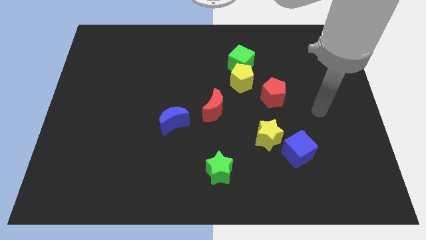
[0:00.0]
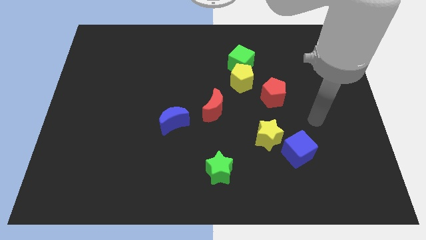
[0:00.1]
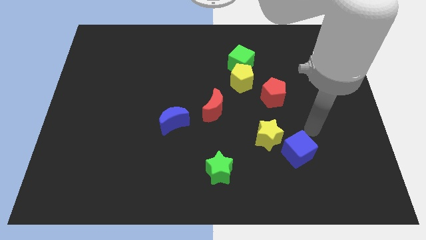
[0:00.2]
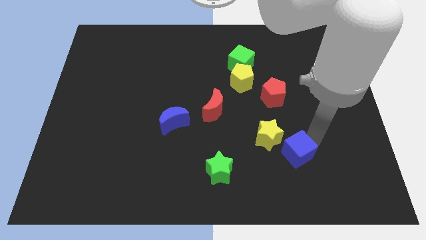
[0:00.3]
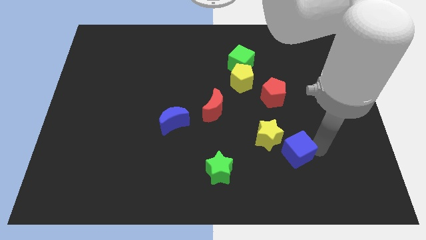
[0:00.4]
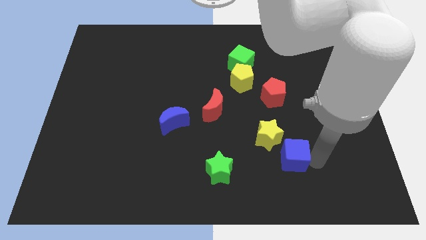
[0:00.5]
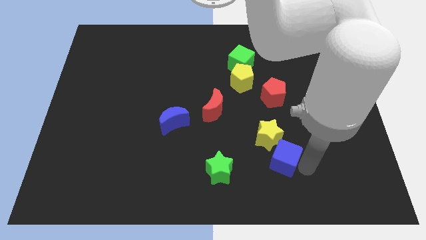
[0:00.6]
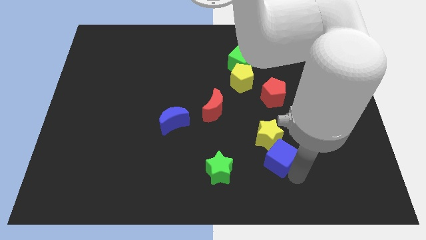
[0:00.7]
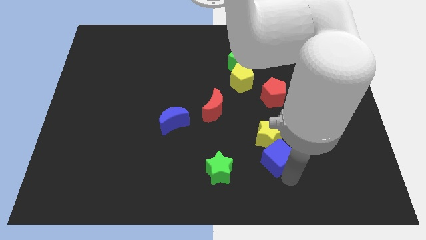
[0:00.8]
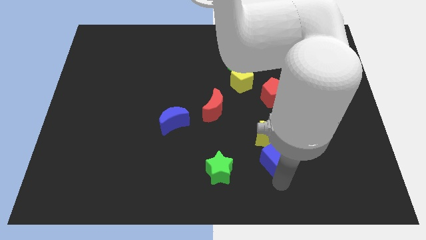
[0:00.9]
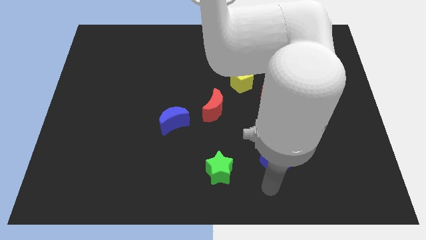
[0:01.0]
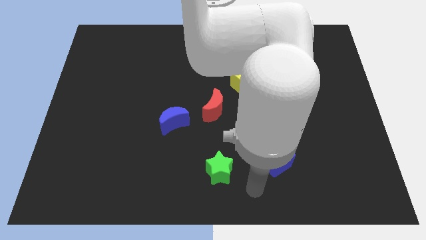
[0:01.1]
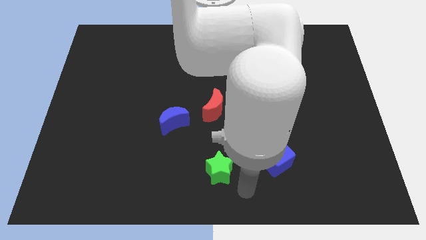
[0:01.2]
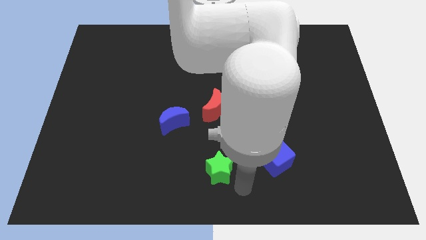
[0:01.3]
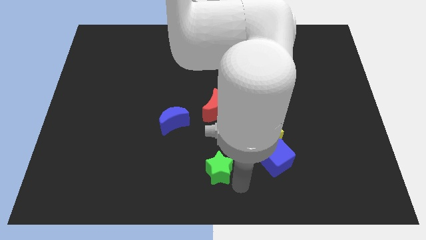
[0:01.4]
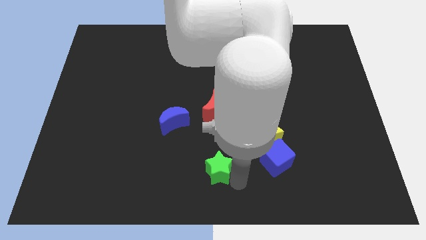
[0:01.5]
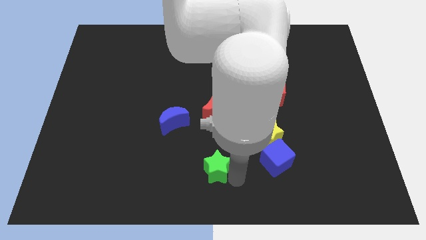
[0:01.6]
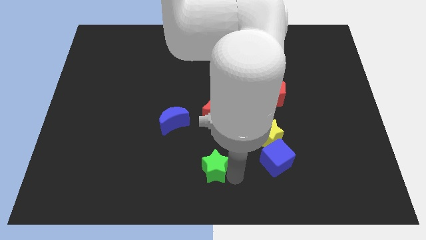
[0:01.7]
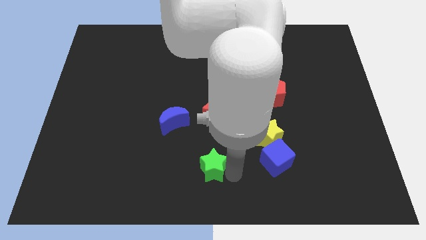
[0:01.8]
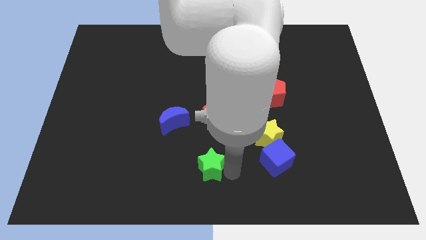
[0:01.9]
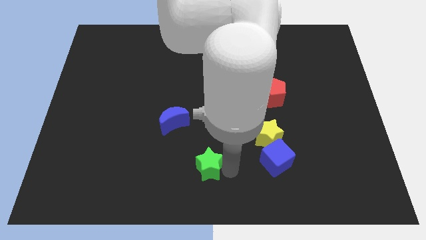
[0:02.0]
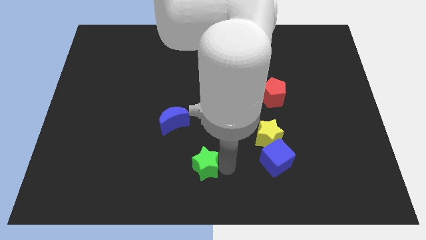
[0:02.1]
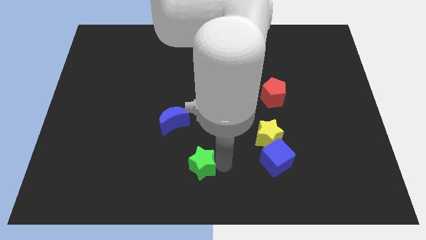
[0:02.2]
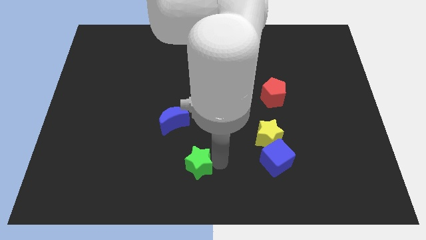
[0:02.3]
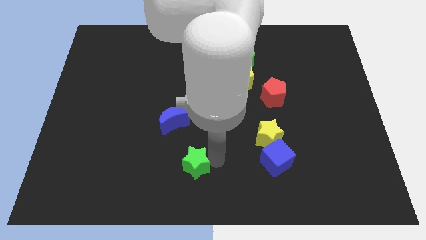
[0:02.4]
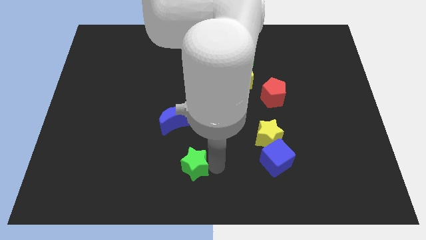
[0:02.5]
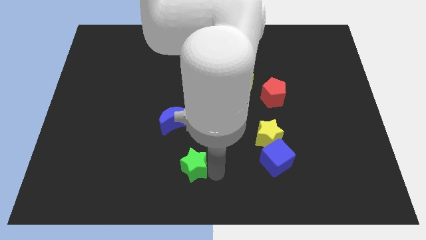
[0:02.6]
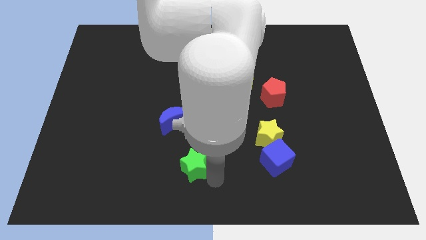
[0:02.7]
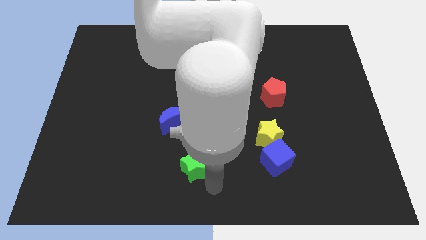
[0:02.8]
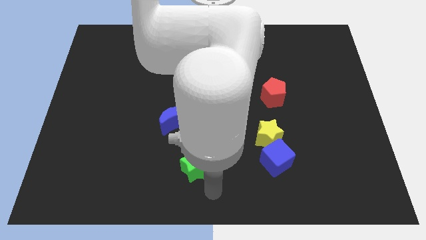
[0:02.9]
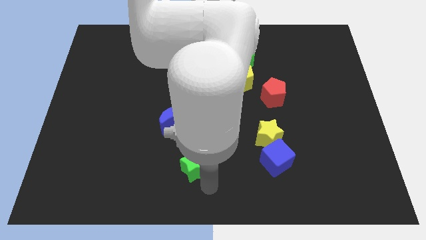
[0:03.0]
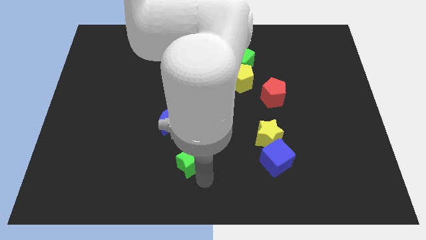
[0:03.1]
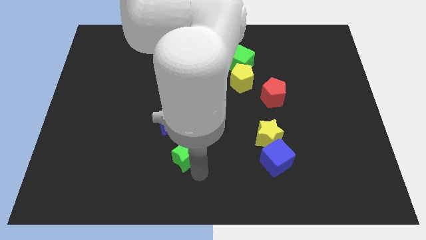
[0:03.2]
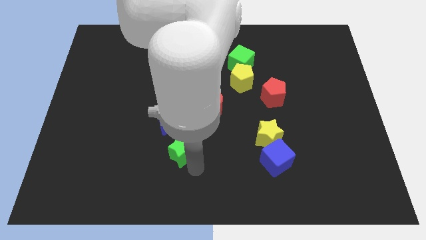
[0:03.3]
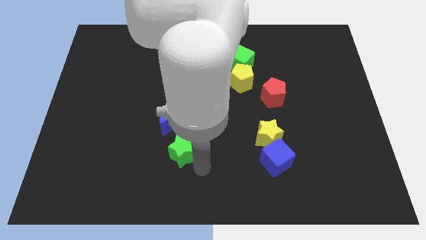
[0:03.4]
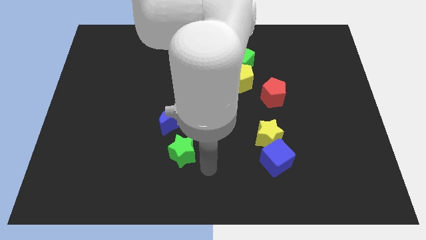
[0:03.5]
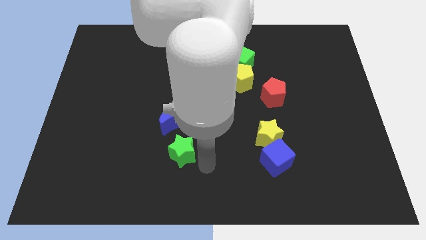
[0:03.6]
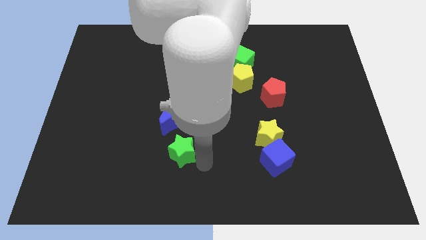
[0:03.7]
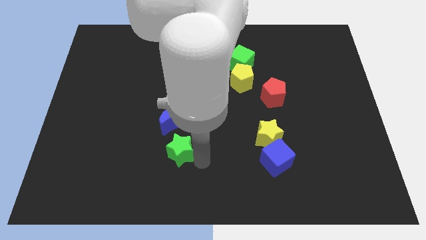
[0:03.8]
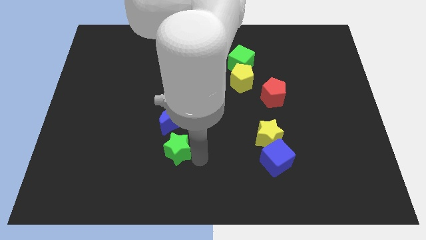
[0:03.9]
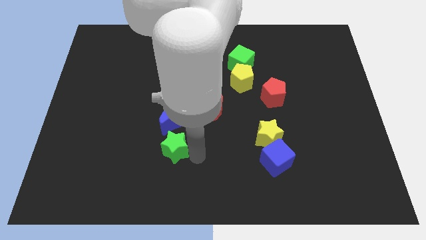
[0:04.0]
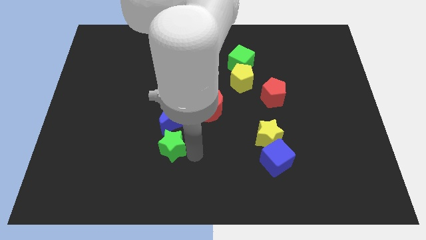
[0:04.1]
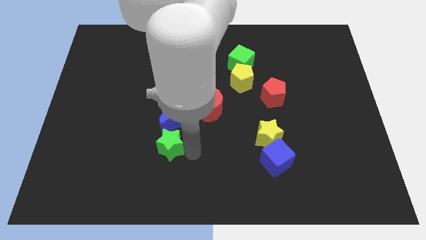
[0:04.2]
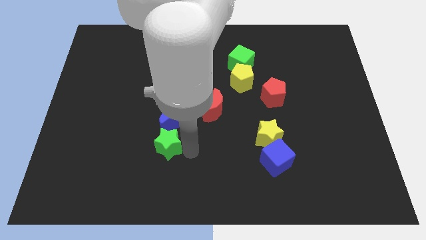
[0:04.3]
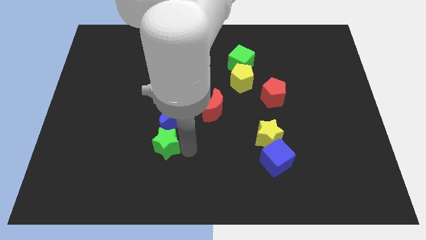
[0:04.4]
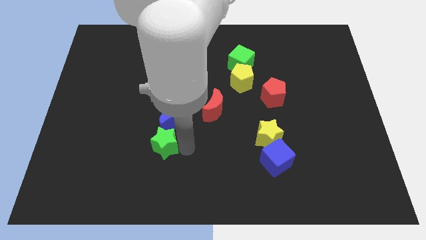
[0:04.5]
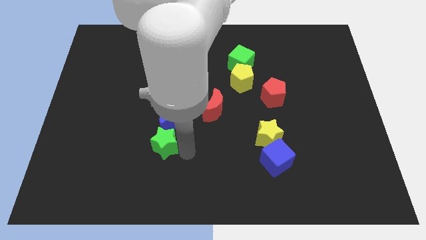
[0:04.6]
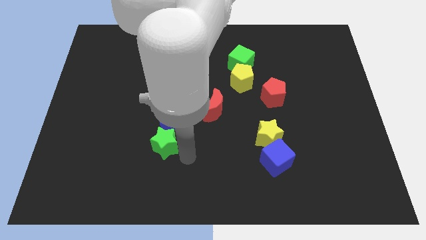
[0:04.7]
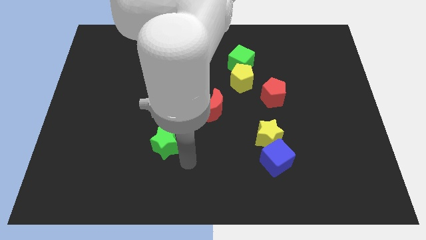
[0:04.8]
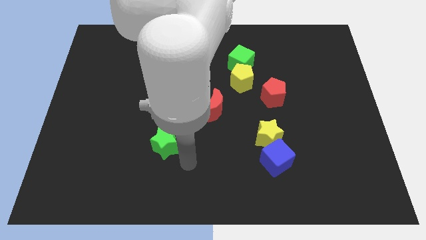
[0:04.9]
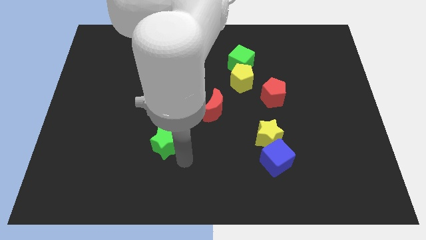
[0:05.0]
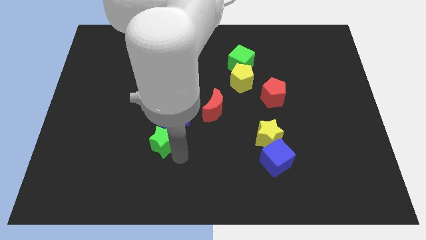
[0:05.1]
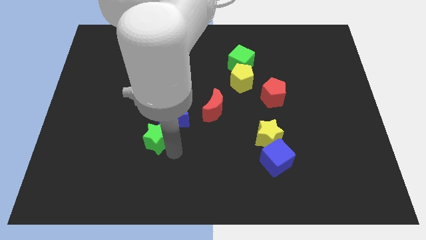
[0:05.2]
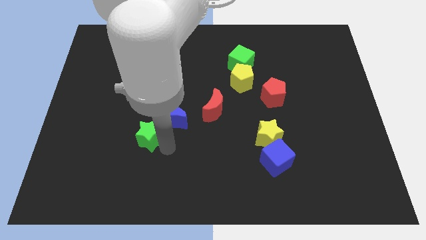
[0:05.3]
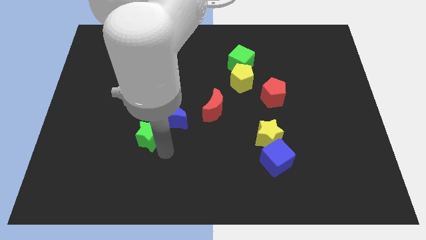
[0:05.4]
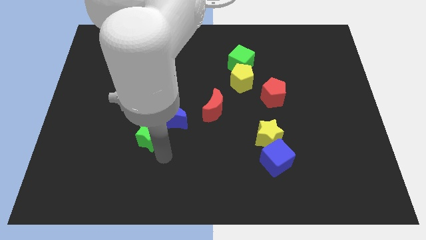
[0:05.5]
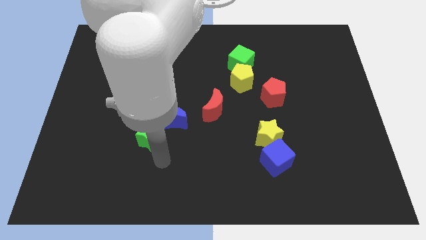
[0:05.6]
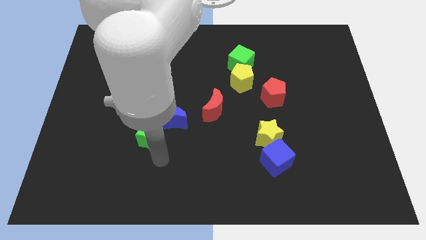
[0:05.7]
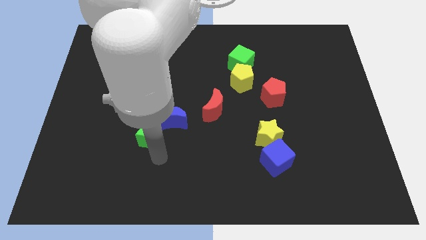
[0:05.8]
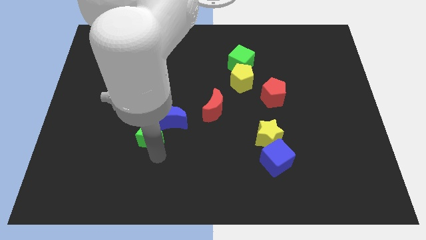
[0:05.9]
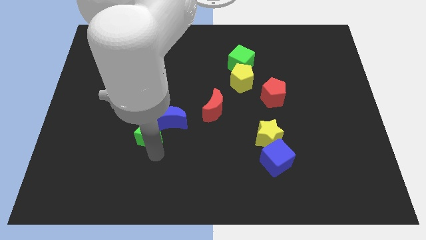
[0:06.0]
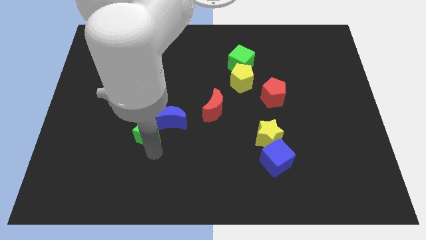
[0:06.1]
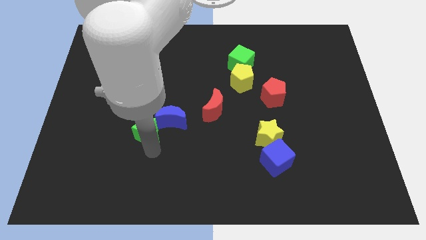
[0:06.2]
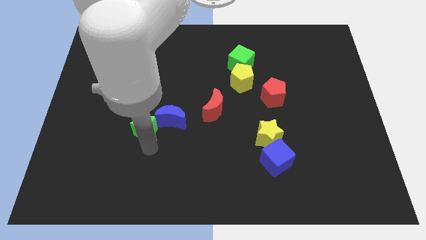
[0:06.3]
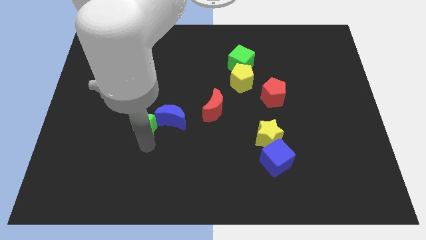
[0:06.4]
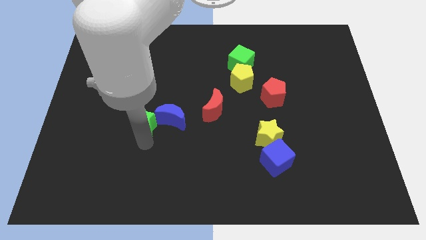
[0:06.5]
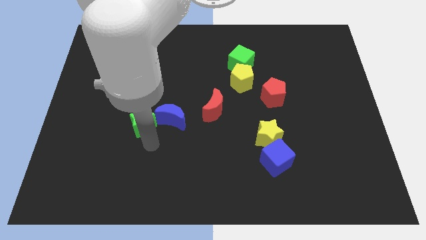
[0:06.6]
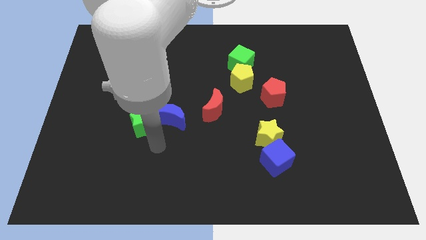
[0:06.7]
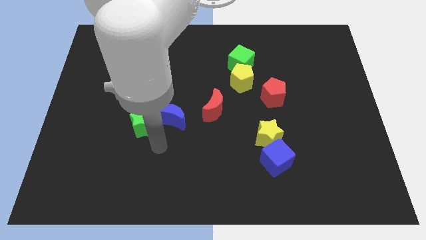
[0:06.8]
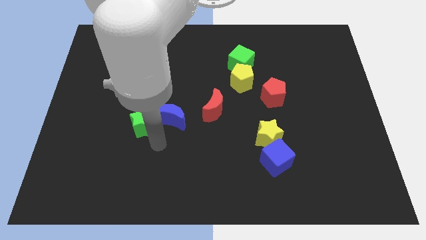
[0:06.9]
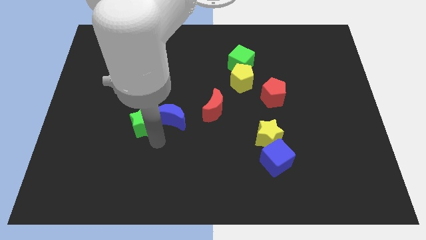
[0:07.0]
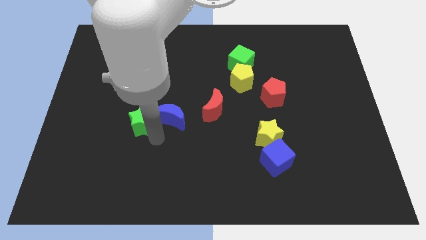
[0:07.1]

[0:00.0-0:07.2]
slide the green star upwards and left diagonally

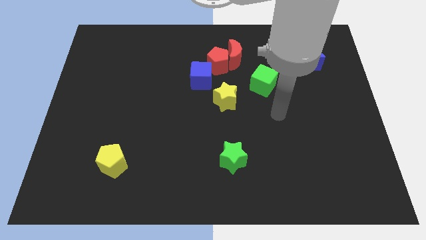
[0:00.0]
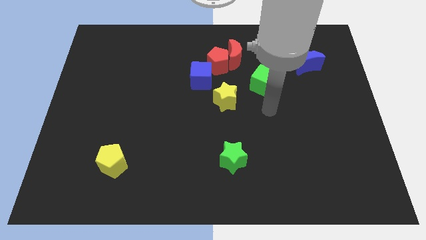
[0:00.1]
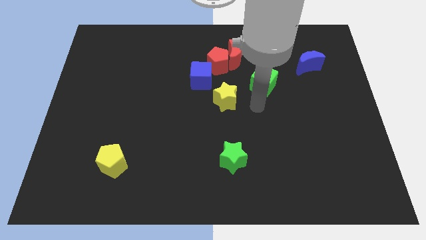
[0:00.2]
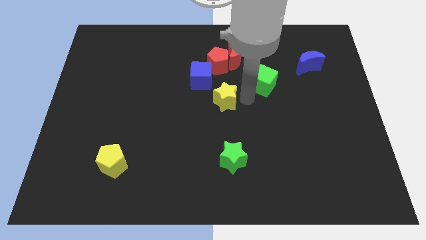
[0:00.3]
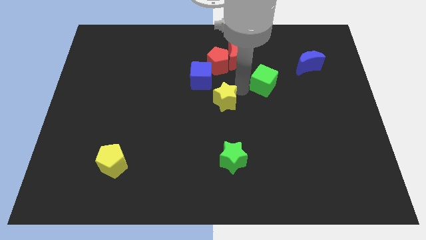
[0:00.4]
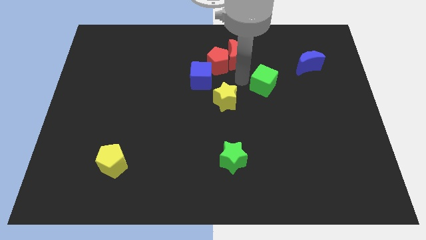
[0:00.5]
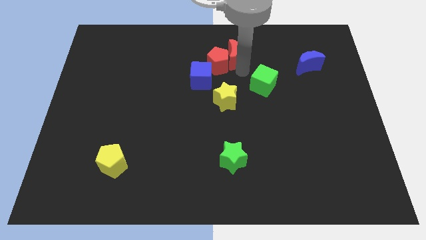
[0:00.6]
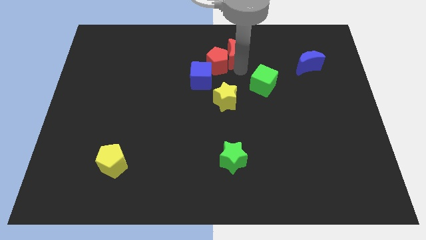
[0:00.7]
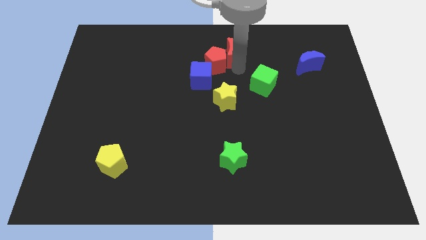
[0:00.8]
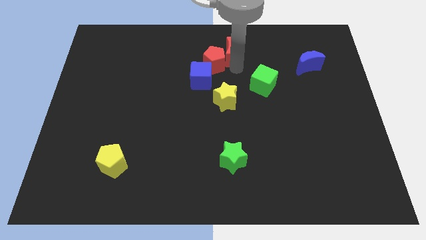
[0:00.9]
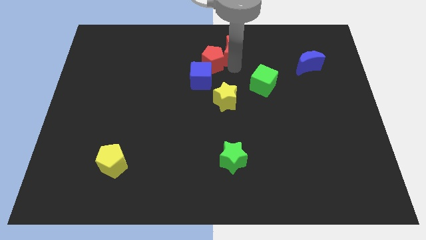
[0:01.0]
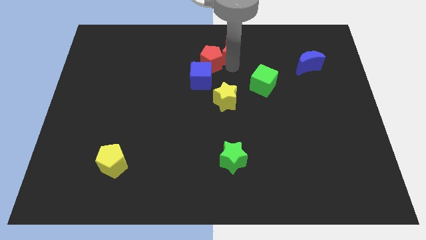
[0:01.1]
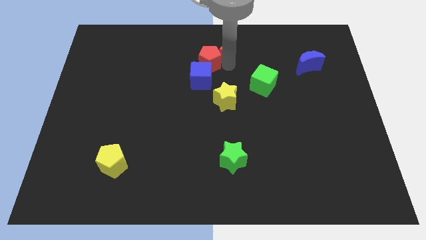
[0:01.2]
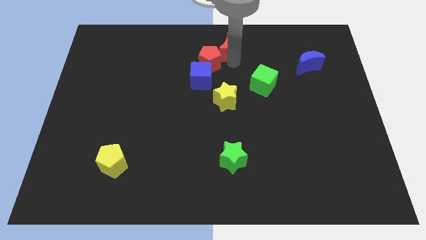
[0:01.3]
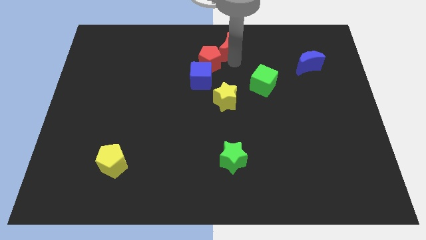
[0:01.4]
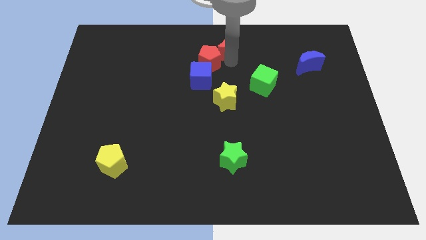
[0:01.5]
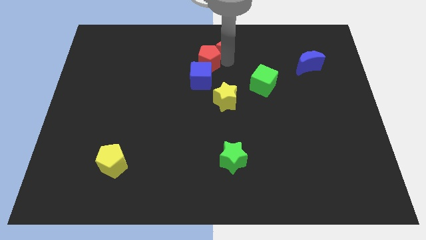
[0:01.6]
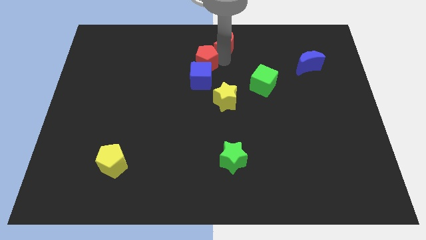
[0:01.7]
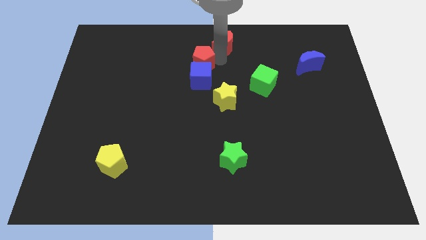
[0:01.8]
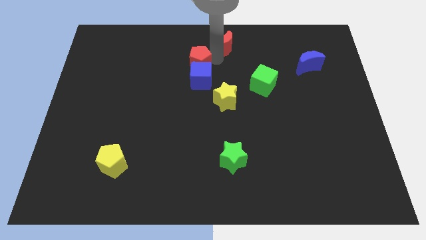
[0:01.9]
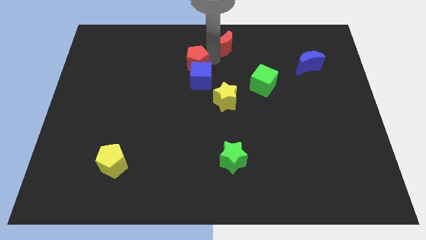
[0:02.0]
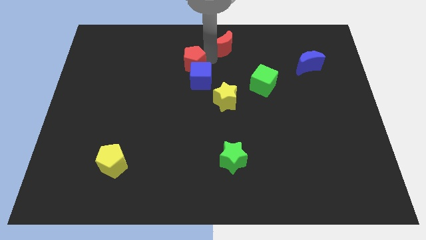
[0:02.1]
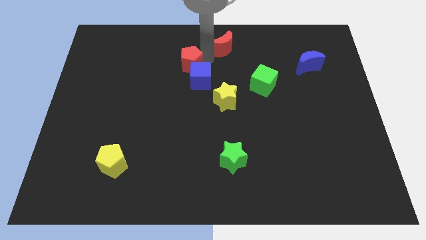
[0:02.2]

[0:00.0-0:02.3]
slightly push the red pentagon left
